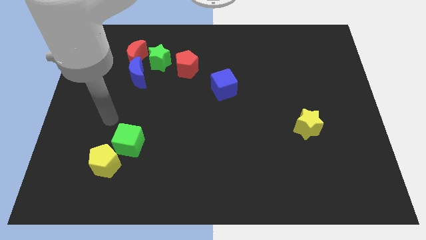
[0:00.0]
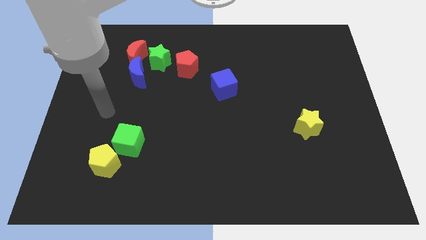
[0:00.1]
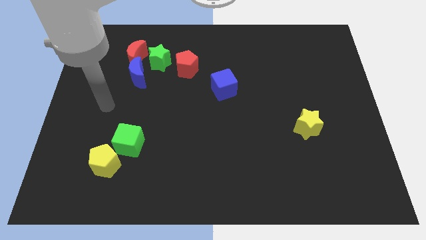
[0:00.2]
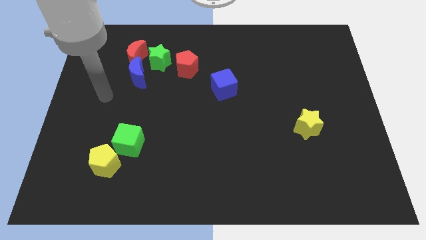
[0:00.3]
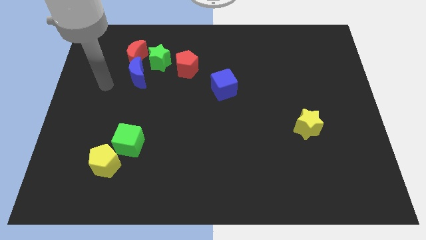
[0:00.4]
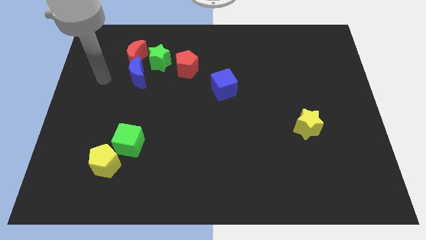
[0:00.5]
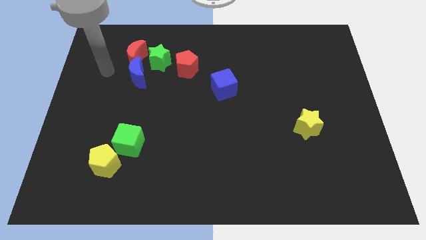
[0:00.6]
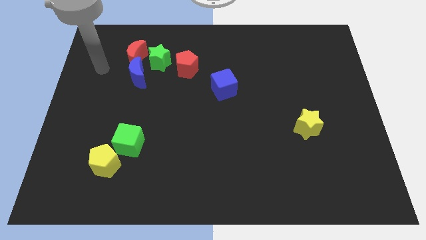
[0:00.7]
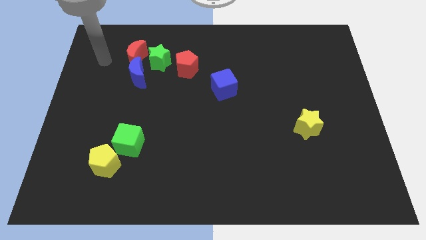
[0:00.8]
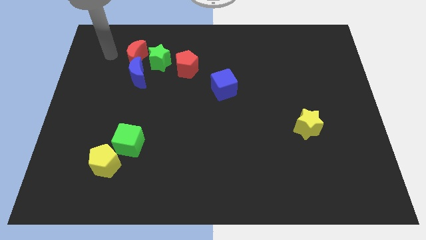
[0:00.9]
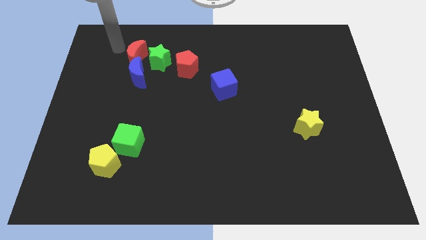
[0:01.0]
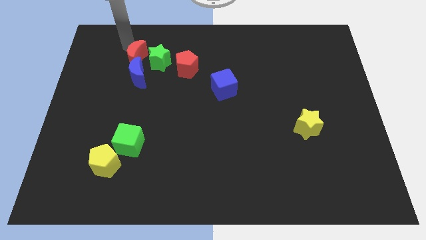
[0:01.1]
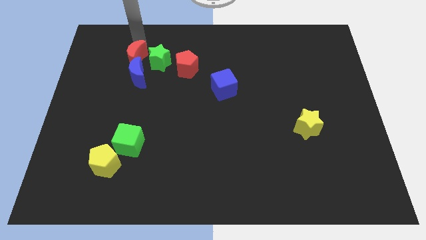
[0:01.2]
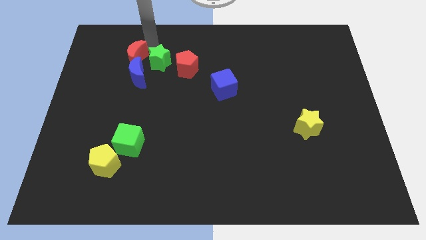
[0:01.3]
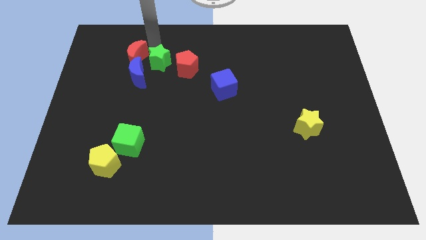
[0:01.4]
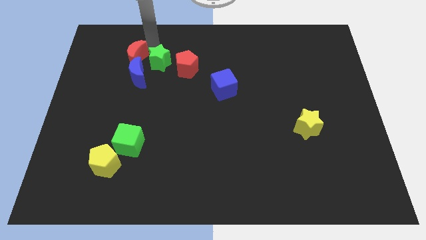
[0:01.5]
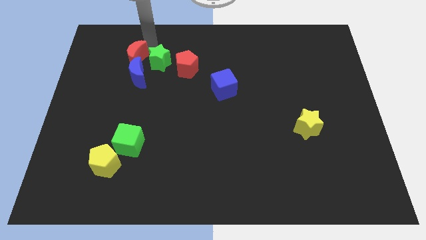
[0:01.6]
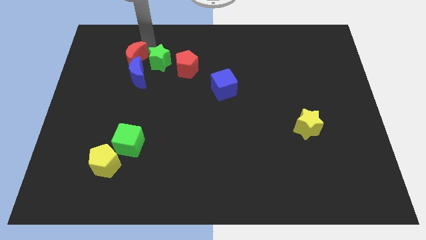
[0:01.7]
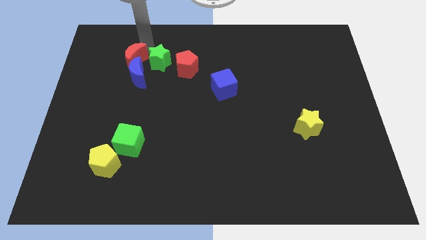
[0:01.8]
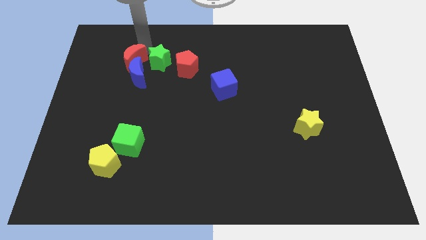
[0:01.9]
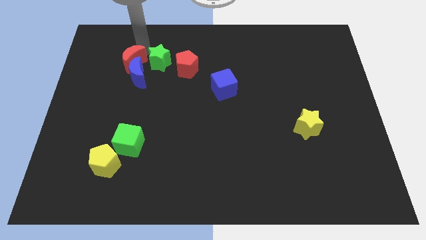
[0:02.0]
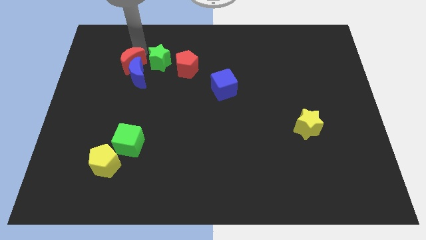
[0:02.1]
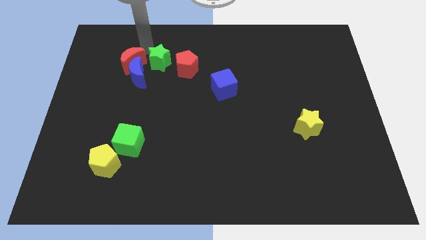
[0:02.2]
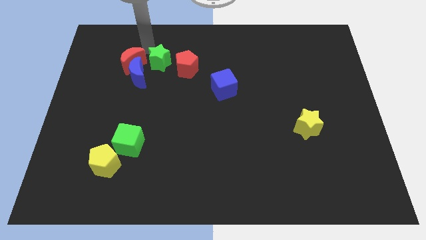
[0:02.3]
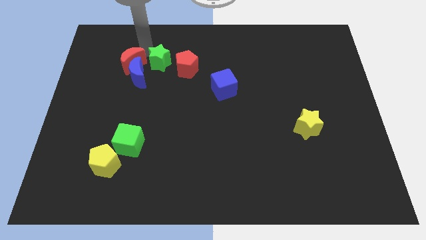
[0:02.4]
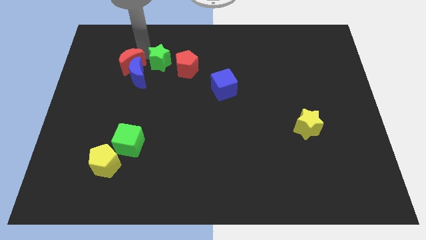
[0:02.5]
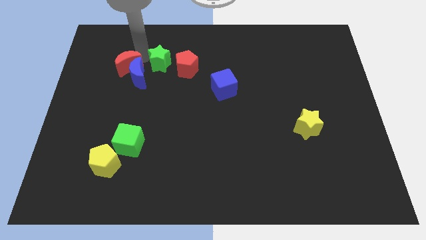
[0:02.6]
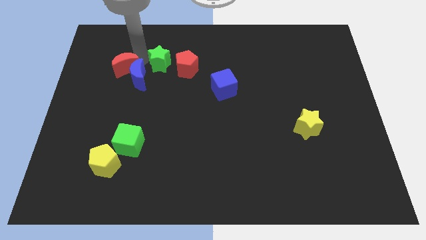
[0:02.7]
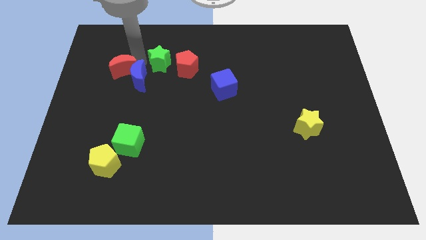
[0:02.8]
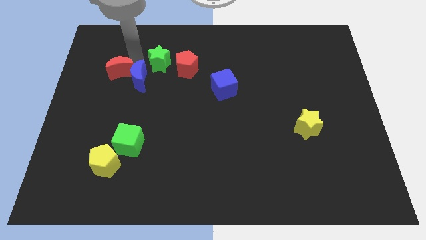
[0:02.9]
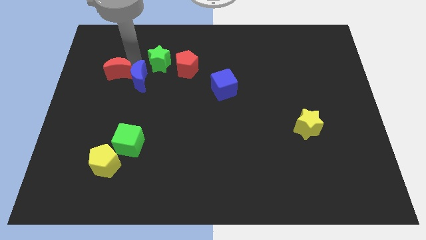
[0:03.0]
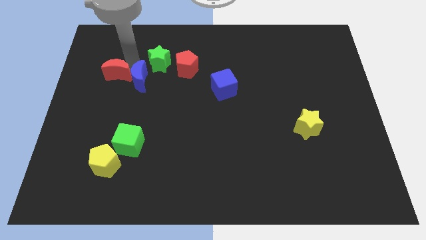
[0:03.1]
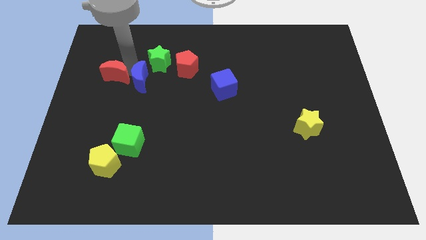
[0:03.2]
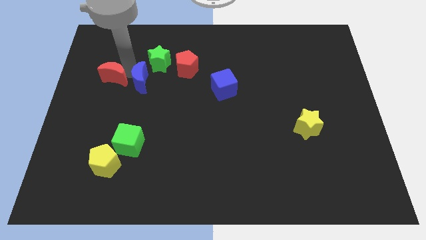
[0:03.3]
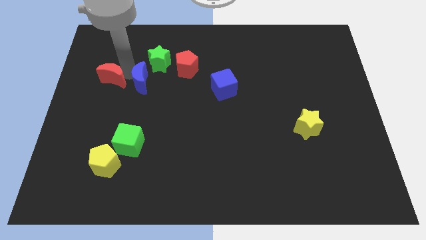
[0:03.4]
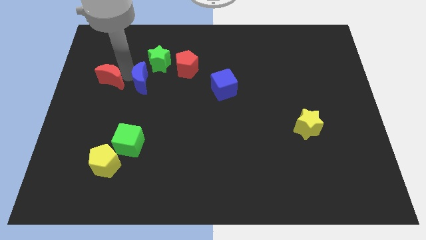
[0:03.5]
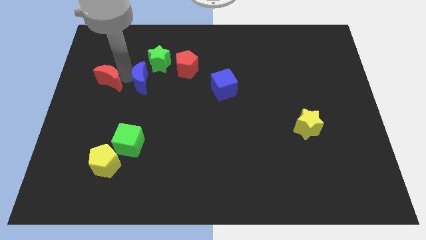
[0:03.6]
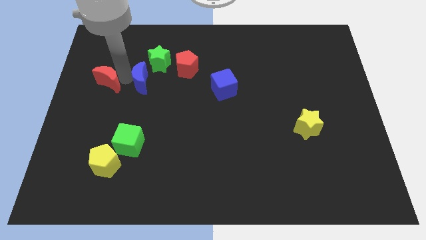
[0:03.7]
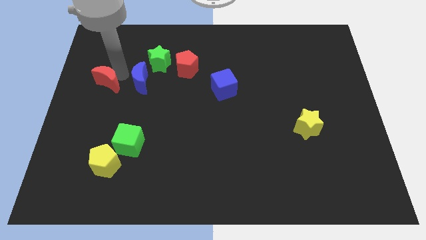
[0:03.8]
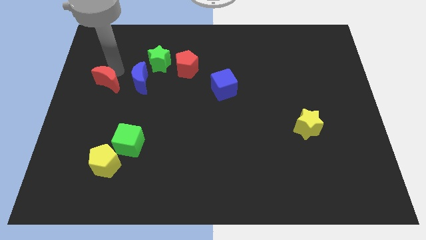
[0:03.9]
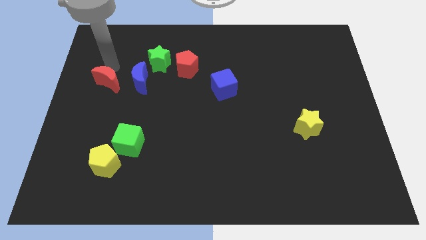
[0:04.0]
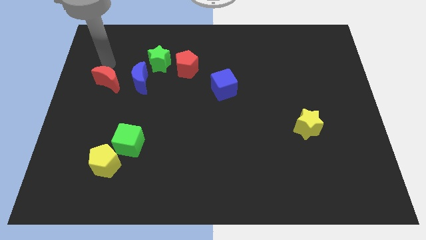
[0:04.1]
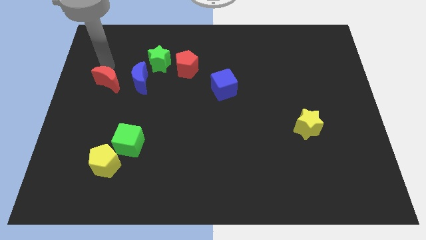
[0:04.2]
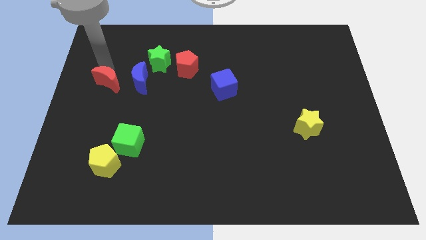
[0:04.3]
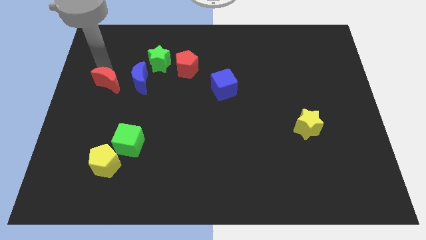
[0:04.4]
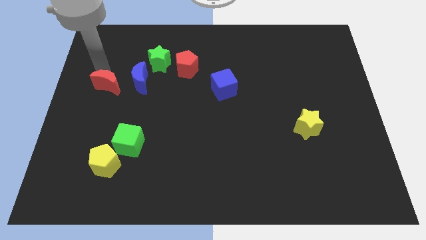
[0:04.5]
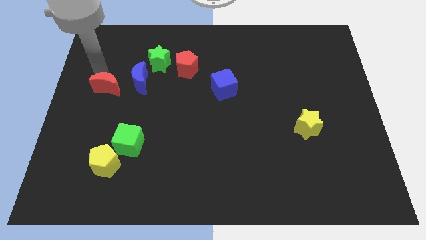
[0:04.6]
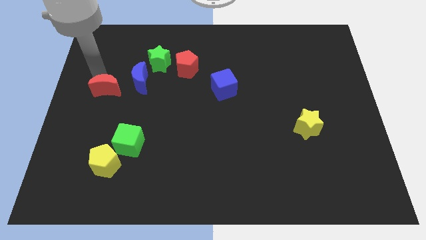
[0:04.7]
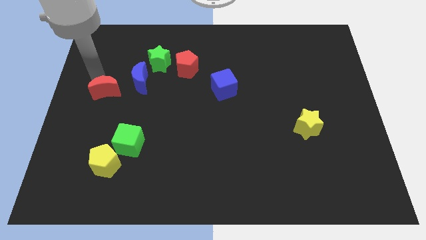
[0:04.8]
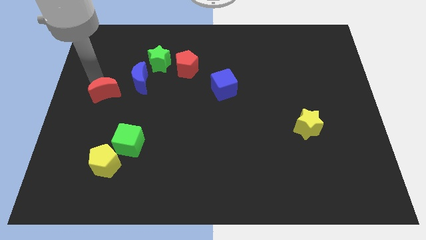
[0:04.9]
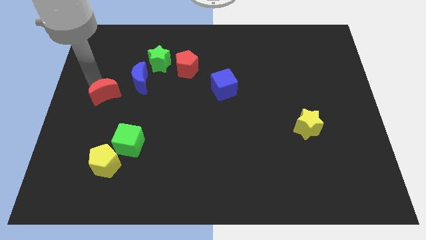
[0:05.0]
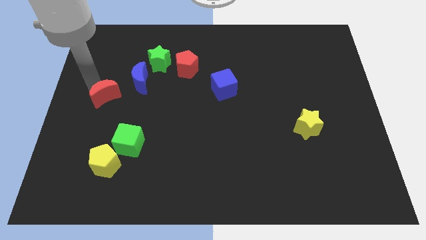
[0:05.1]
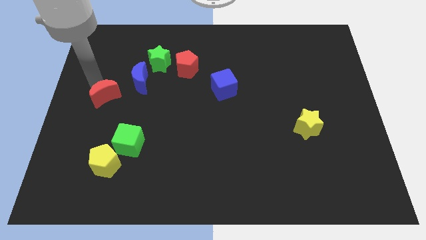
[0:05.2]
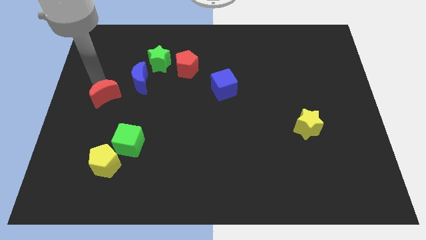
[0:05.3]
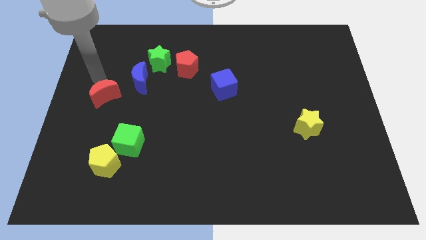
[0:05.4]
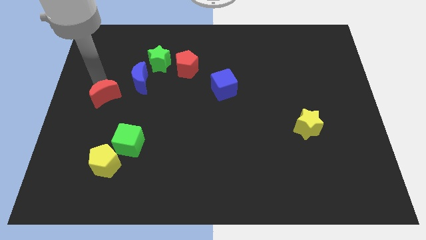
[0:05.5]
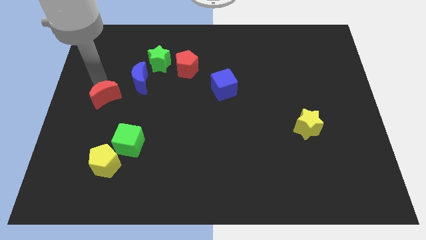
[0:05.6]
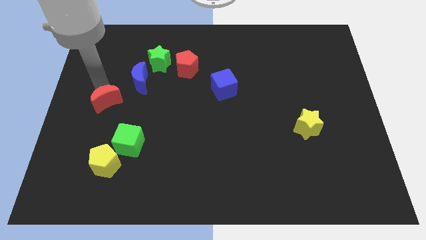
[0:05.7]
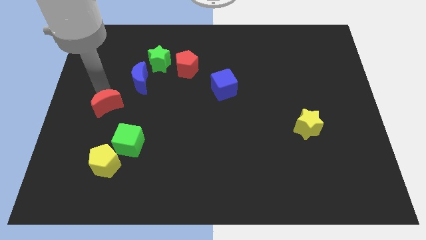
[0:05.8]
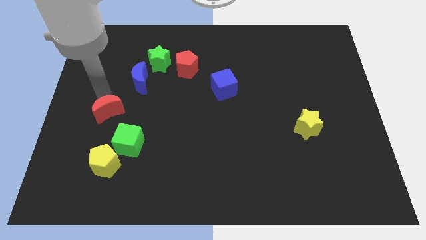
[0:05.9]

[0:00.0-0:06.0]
slide the red moon to the top of the yellow pentagon

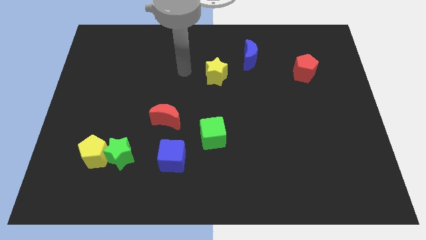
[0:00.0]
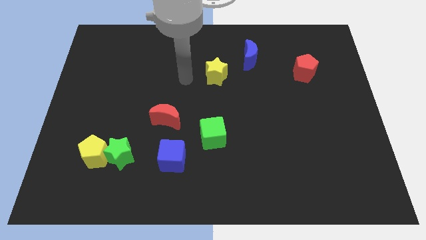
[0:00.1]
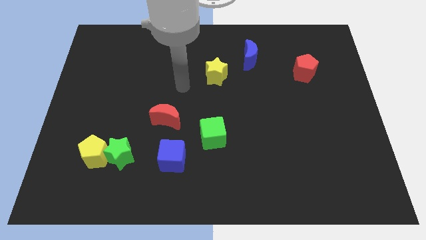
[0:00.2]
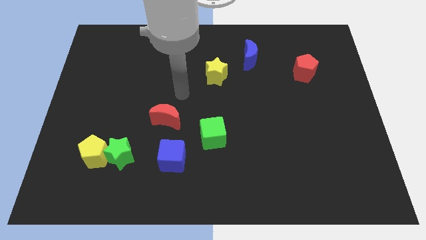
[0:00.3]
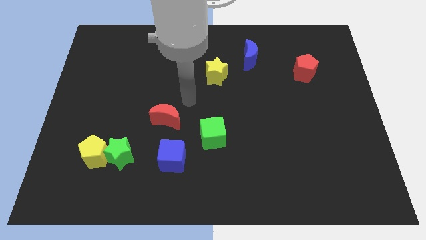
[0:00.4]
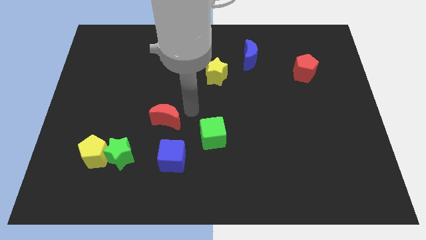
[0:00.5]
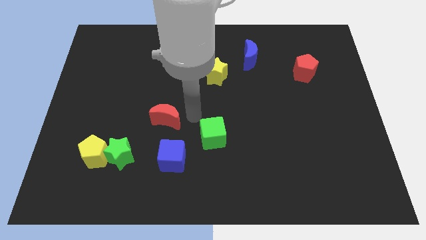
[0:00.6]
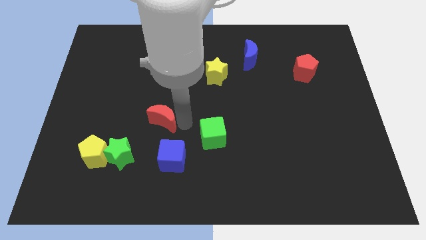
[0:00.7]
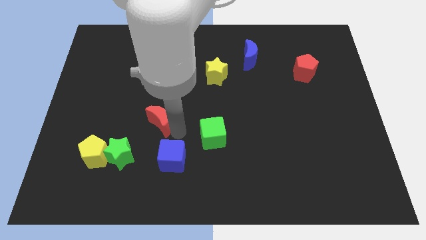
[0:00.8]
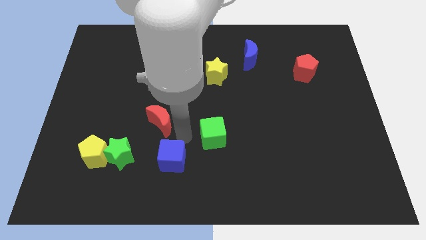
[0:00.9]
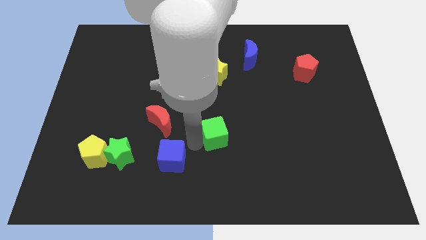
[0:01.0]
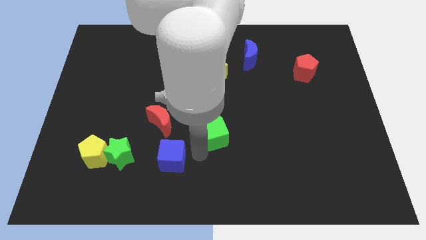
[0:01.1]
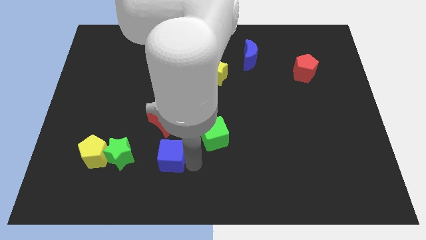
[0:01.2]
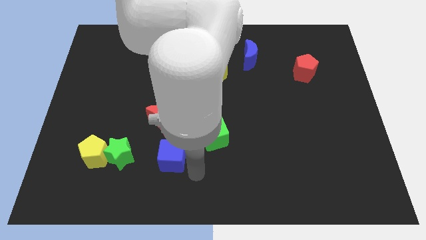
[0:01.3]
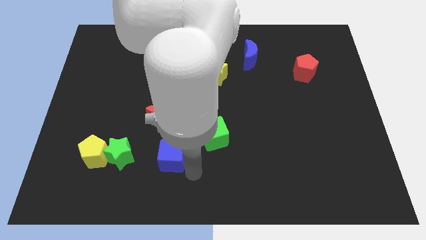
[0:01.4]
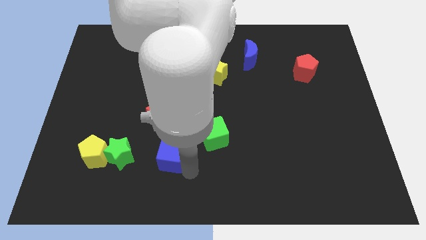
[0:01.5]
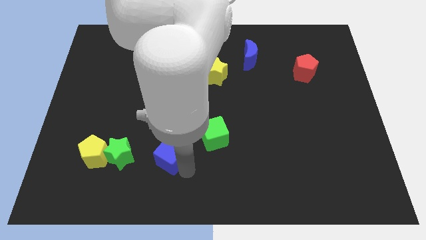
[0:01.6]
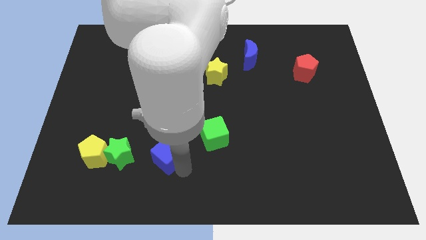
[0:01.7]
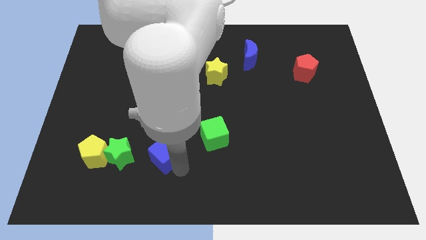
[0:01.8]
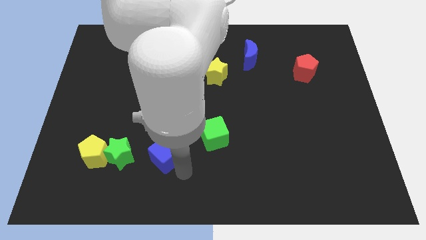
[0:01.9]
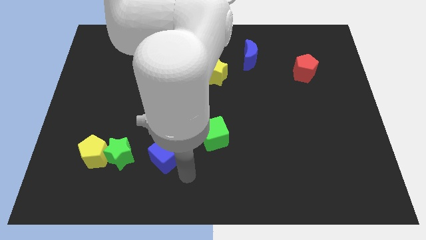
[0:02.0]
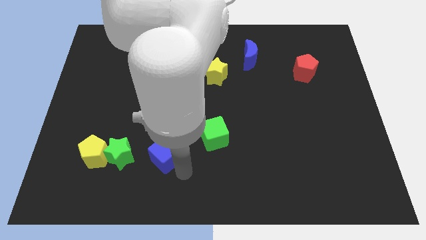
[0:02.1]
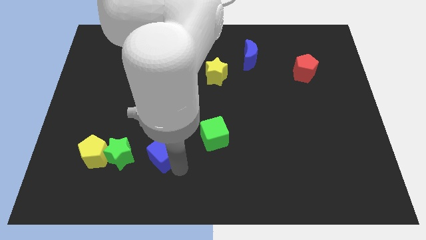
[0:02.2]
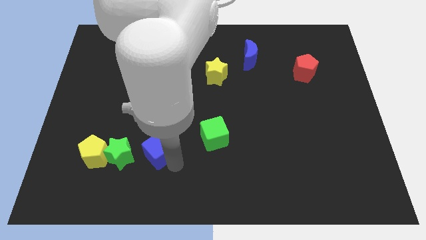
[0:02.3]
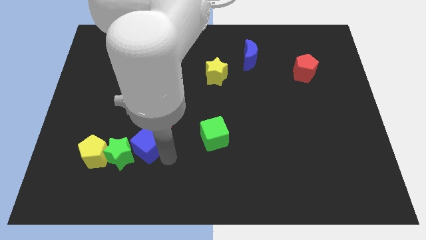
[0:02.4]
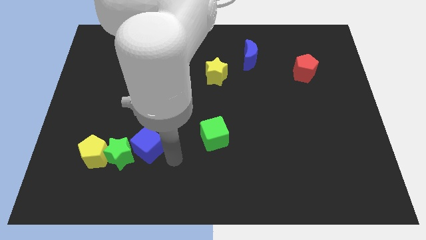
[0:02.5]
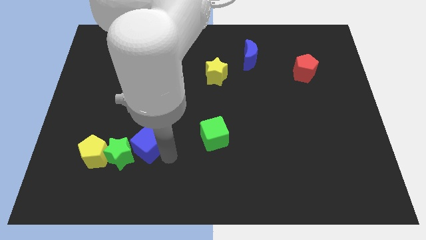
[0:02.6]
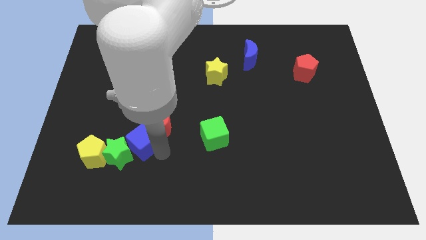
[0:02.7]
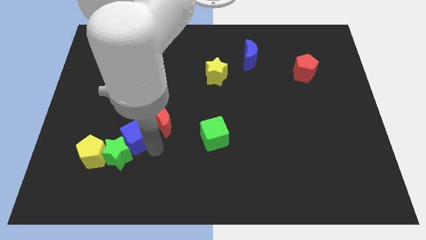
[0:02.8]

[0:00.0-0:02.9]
move the blue cube to the top right side of the yellow pentagon
